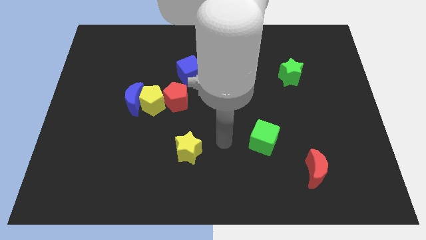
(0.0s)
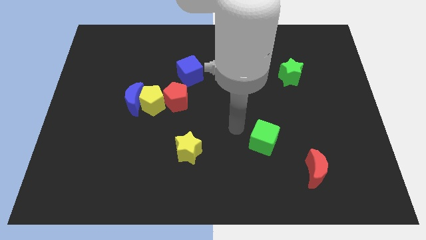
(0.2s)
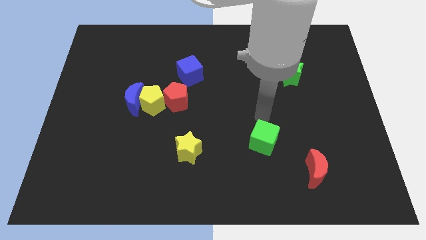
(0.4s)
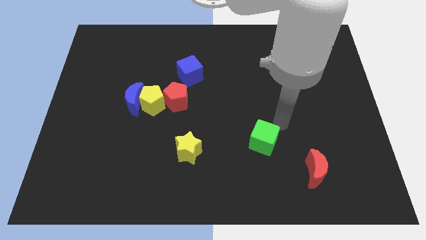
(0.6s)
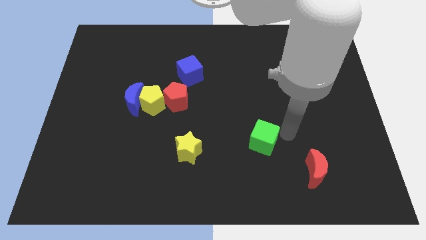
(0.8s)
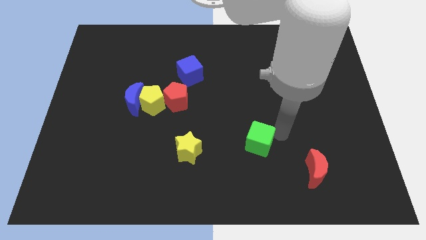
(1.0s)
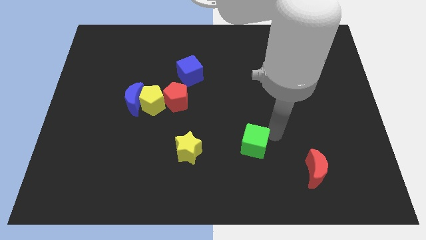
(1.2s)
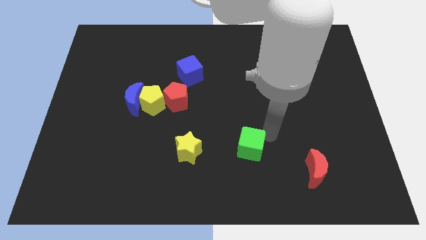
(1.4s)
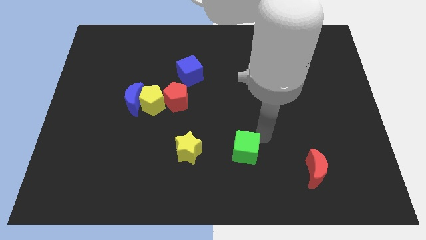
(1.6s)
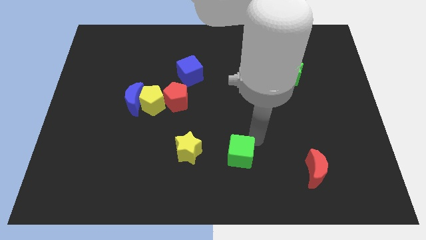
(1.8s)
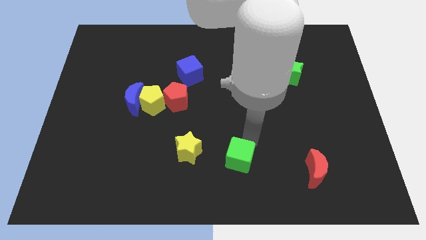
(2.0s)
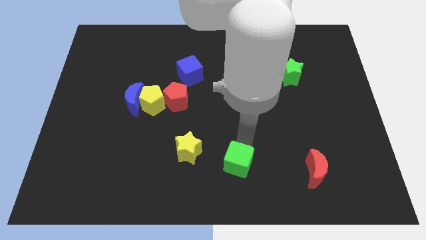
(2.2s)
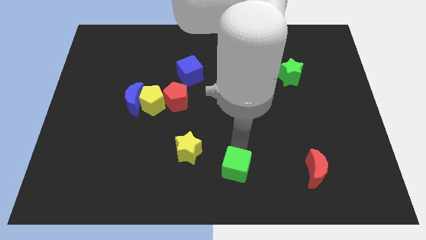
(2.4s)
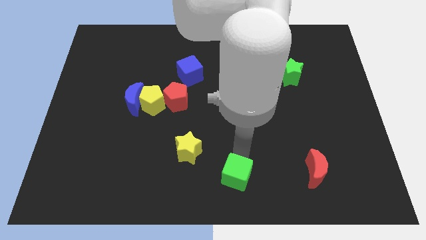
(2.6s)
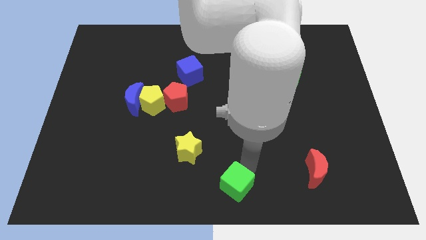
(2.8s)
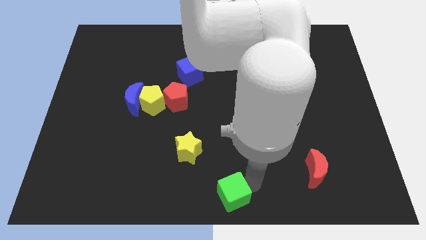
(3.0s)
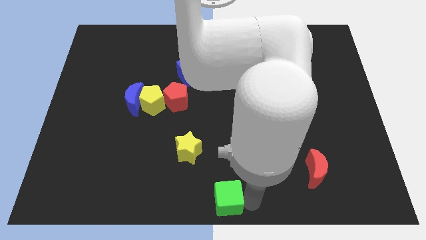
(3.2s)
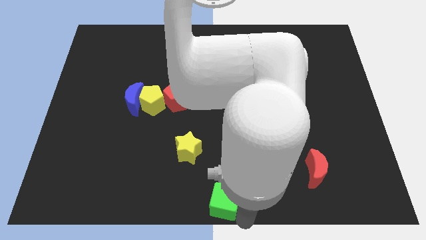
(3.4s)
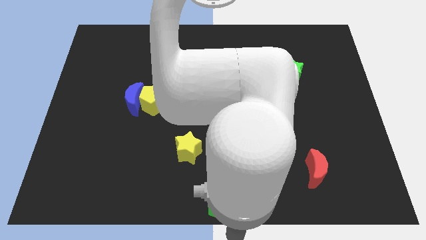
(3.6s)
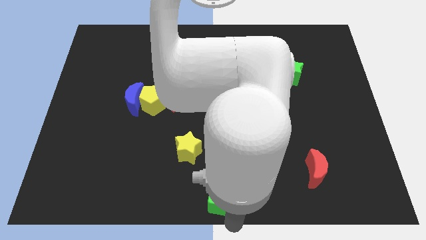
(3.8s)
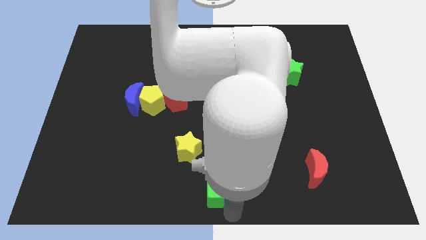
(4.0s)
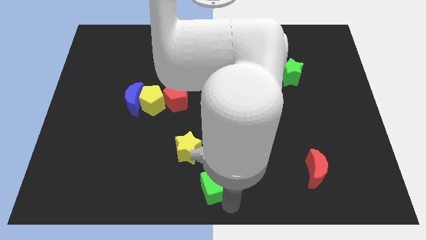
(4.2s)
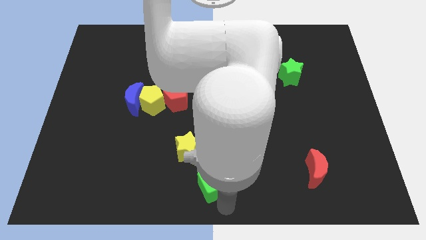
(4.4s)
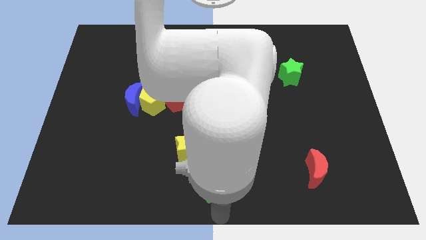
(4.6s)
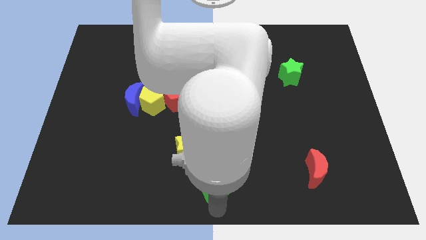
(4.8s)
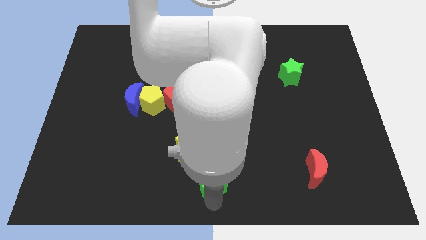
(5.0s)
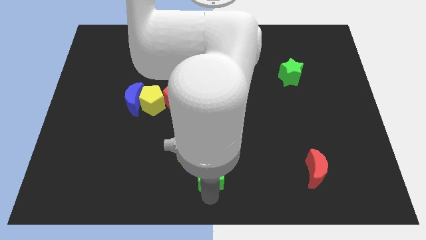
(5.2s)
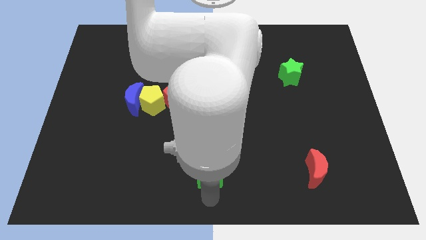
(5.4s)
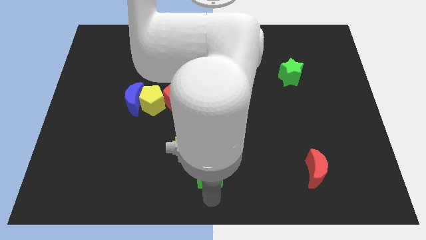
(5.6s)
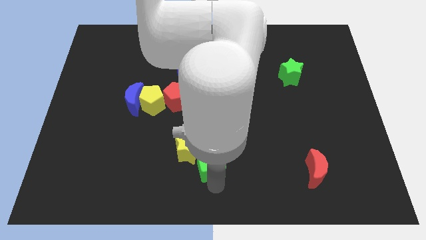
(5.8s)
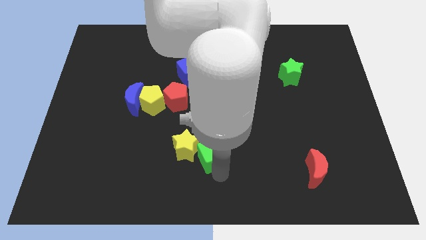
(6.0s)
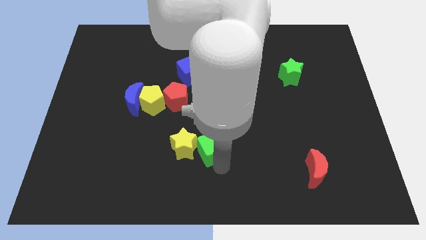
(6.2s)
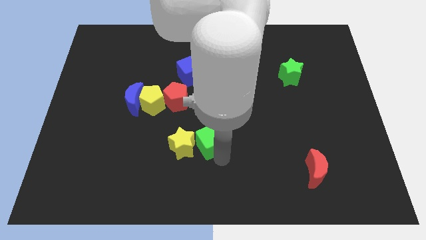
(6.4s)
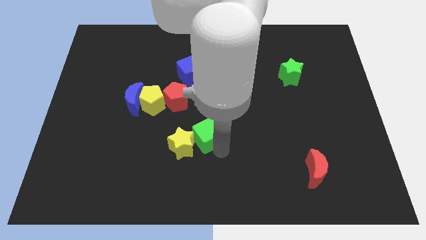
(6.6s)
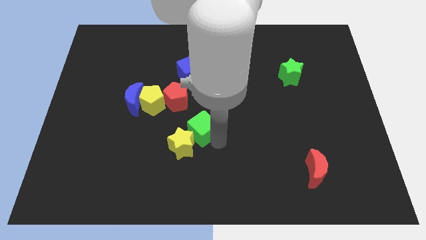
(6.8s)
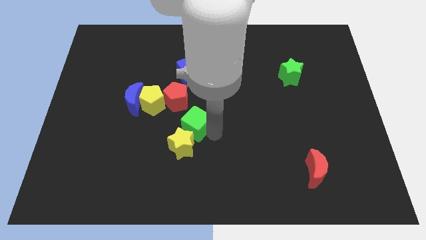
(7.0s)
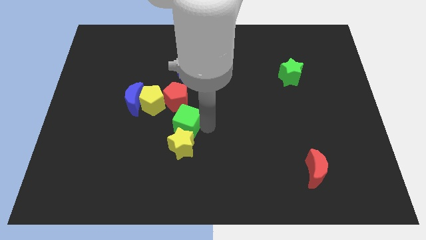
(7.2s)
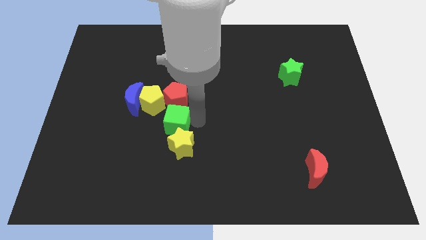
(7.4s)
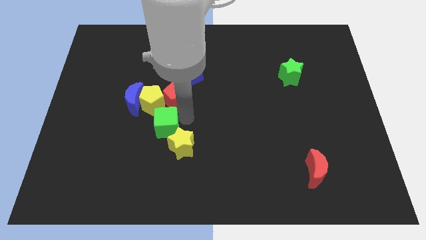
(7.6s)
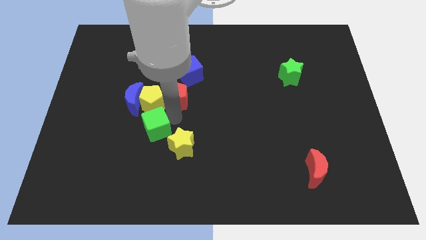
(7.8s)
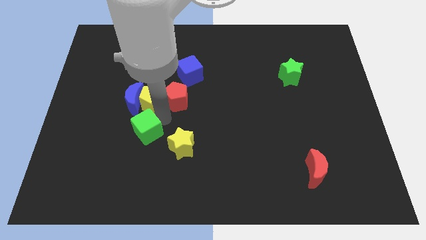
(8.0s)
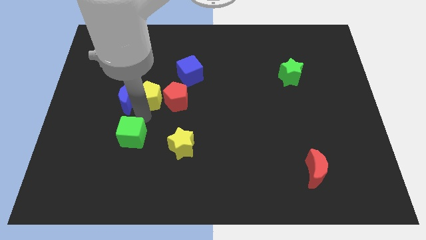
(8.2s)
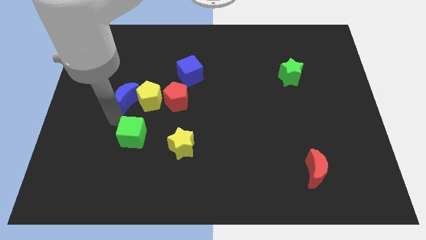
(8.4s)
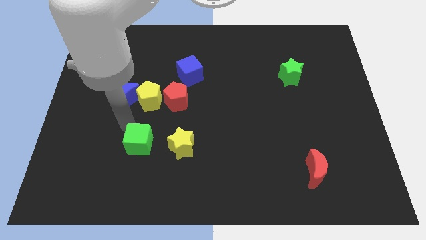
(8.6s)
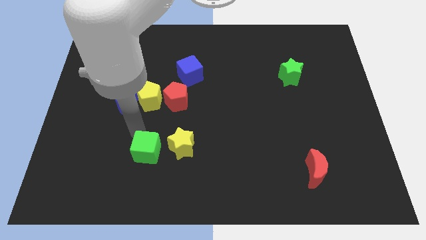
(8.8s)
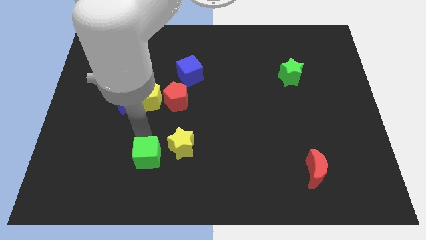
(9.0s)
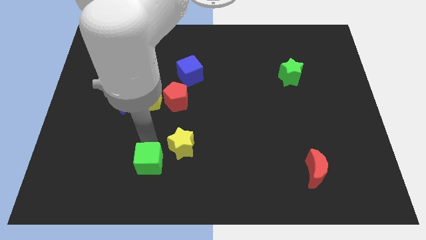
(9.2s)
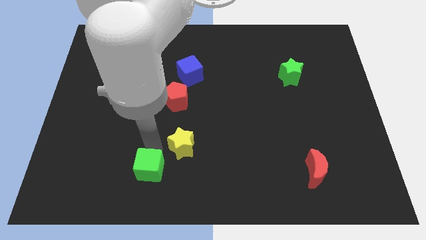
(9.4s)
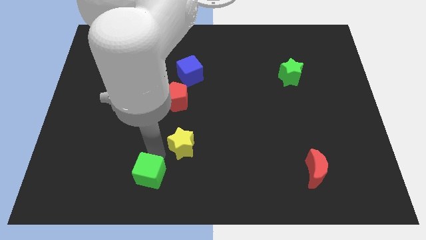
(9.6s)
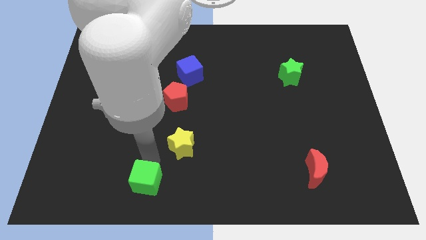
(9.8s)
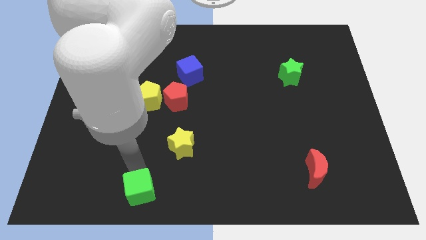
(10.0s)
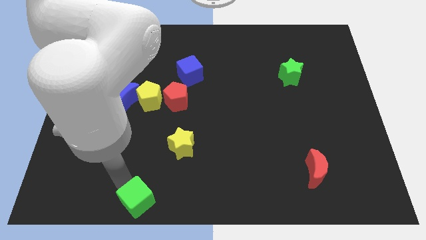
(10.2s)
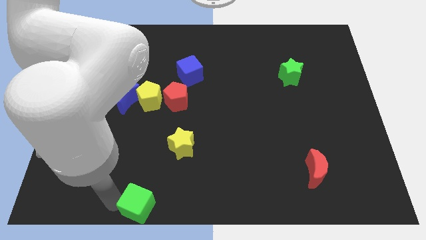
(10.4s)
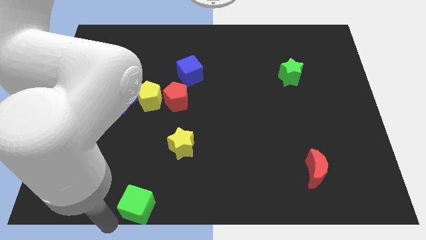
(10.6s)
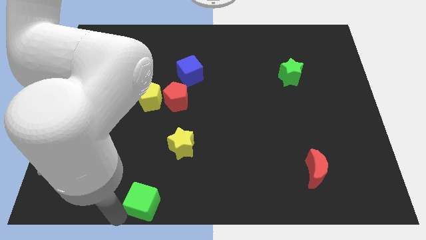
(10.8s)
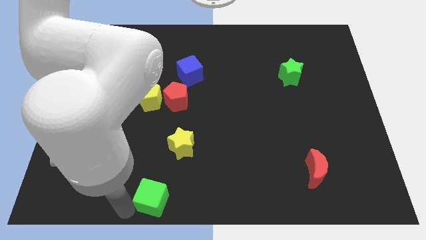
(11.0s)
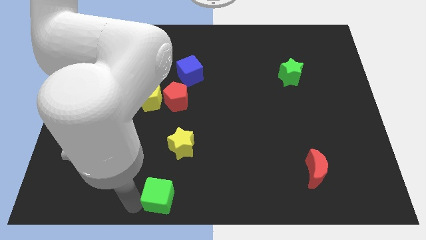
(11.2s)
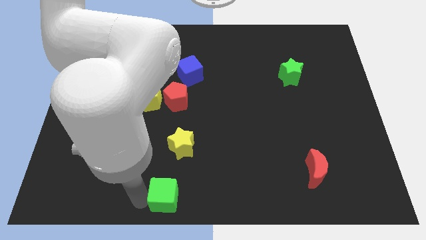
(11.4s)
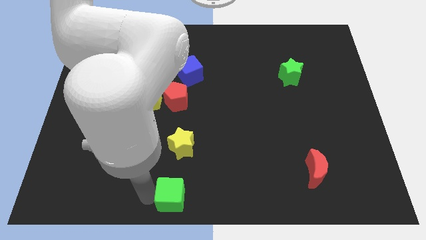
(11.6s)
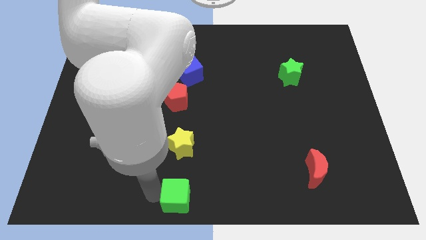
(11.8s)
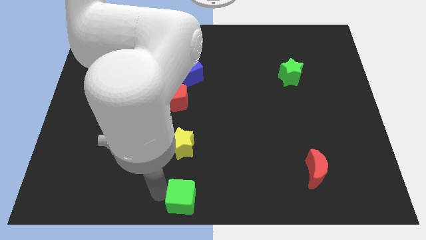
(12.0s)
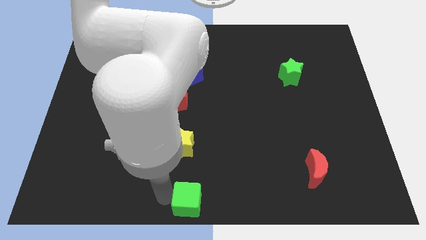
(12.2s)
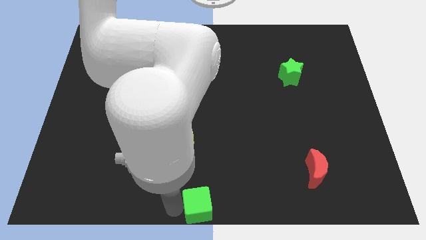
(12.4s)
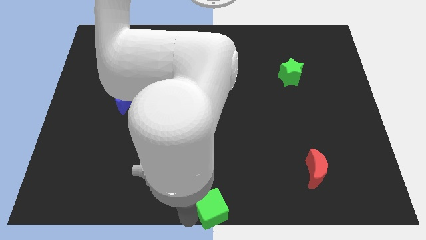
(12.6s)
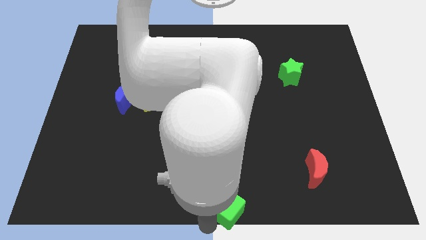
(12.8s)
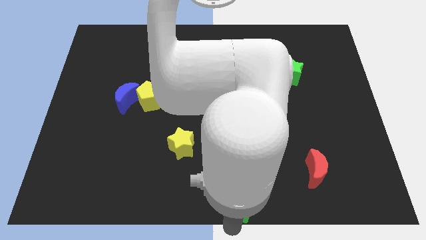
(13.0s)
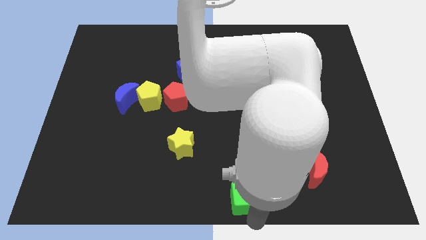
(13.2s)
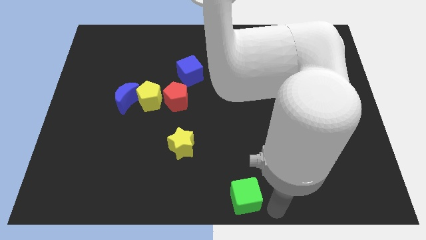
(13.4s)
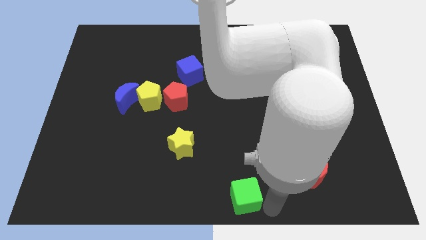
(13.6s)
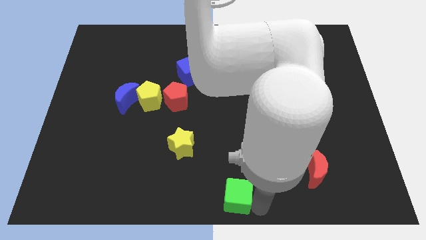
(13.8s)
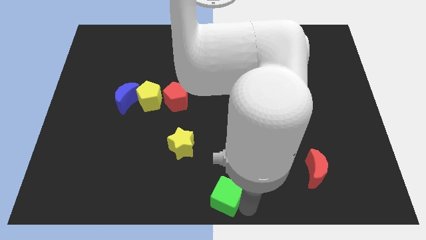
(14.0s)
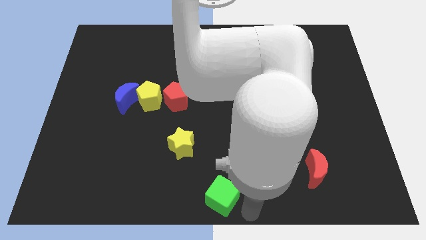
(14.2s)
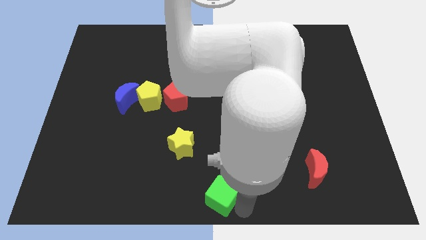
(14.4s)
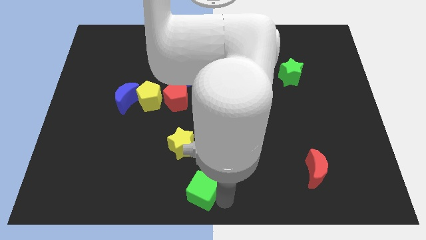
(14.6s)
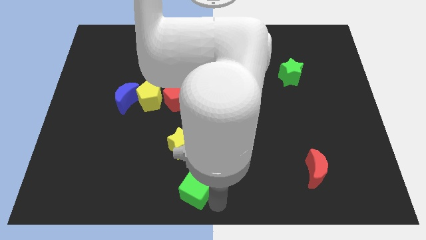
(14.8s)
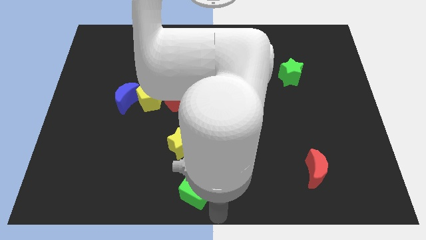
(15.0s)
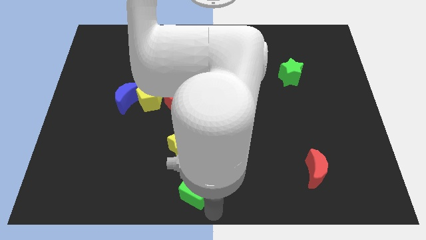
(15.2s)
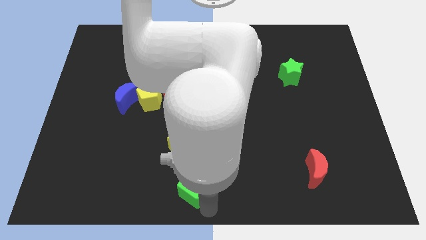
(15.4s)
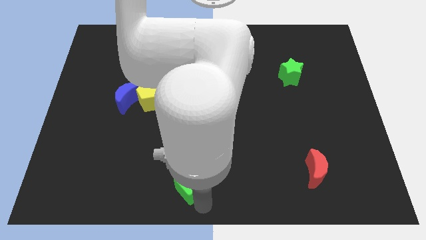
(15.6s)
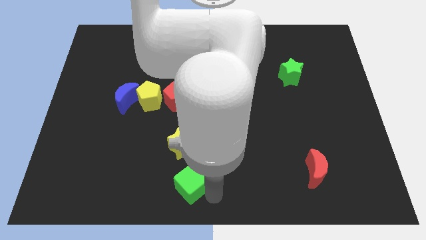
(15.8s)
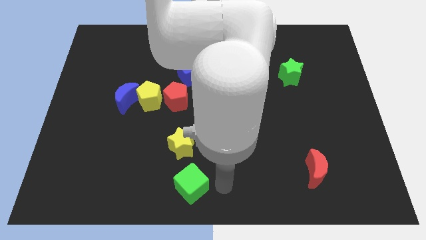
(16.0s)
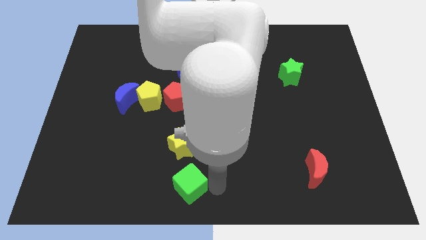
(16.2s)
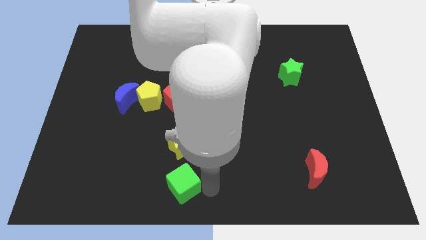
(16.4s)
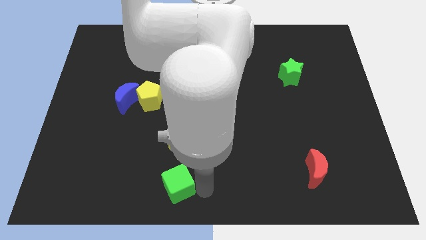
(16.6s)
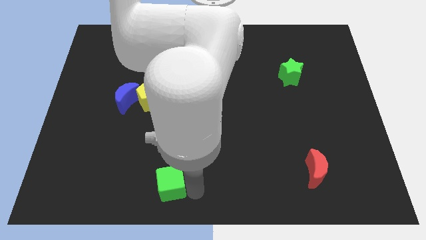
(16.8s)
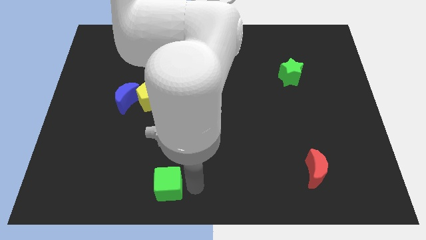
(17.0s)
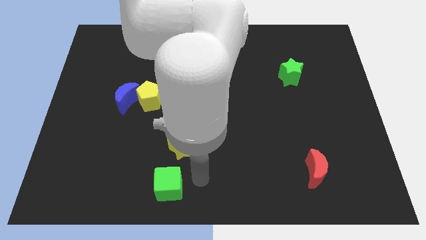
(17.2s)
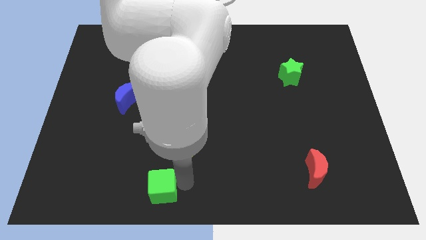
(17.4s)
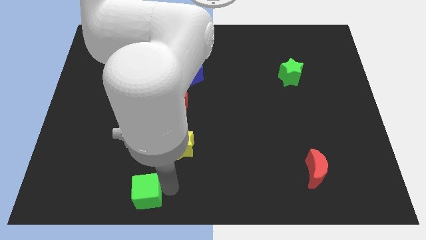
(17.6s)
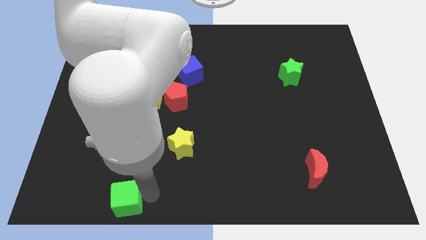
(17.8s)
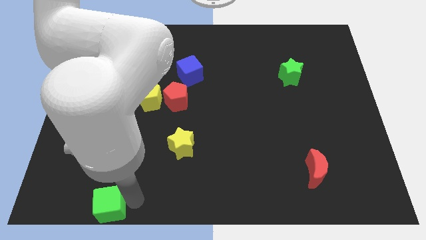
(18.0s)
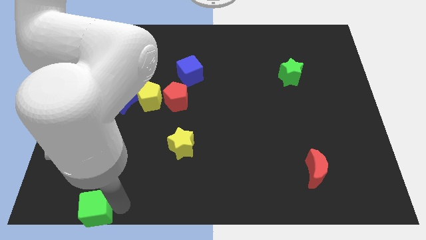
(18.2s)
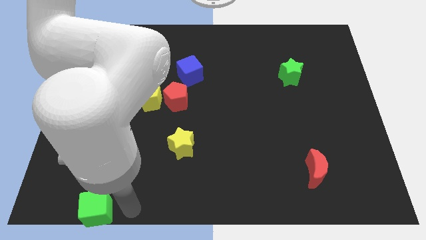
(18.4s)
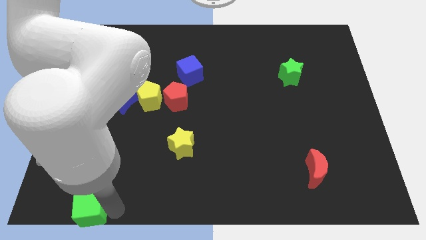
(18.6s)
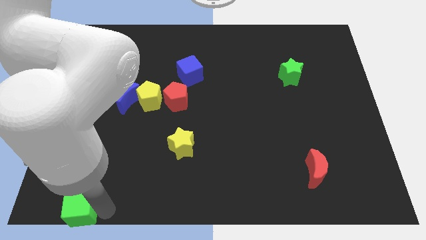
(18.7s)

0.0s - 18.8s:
push the green cube to the bottom left
